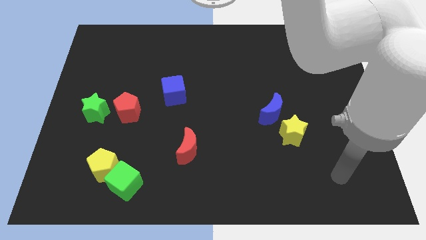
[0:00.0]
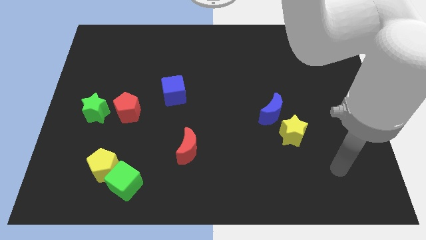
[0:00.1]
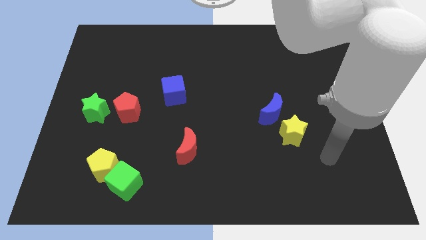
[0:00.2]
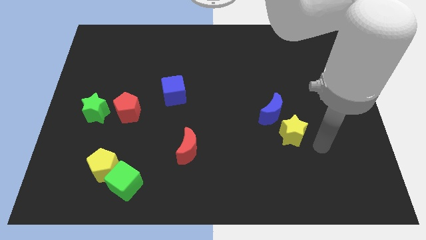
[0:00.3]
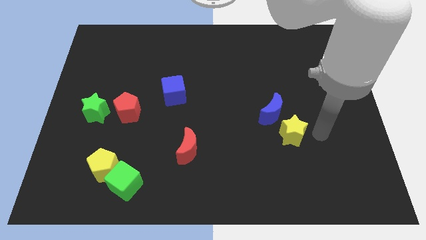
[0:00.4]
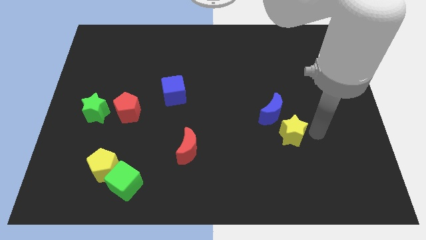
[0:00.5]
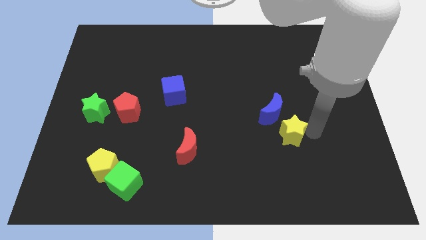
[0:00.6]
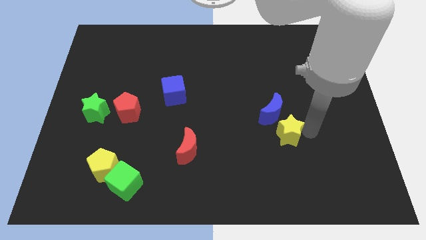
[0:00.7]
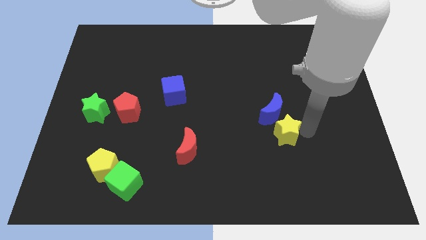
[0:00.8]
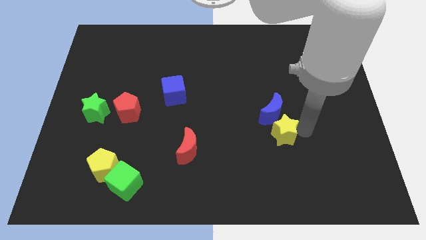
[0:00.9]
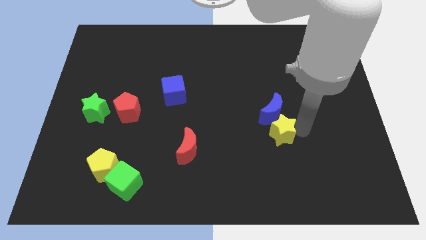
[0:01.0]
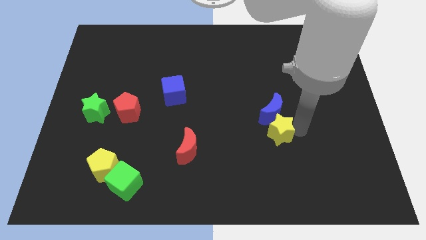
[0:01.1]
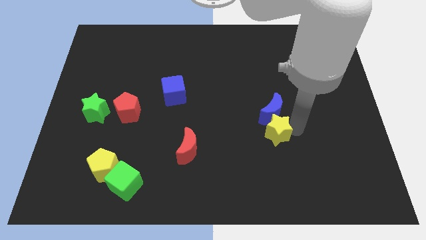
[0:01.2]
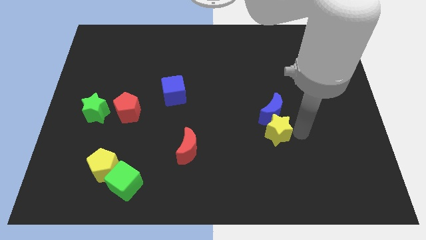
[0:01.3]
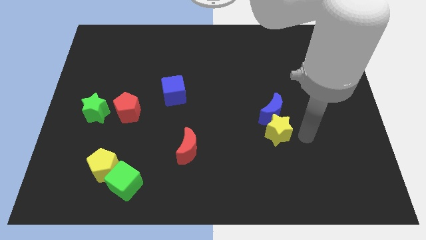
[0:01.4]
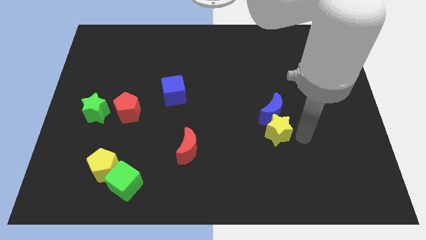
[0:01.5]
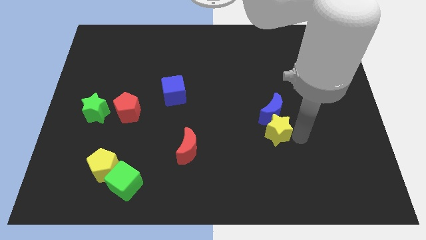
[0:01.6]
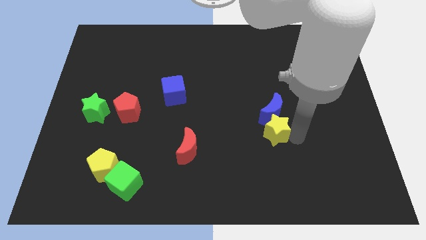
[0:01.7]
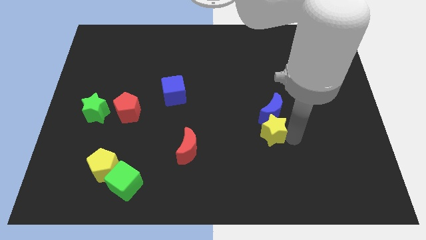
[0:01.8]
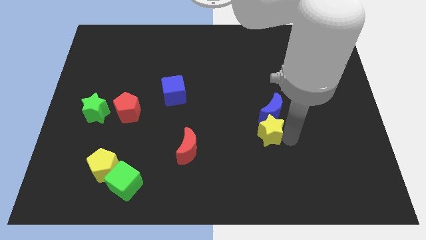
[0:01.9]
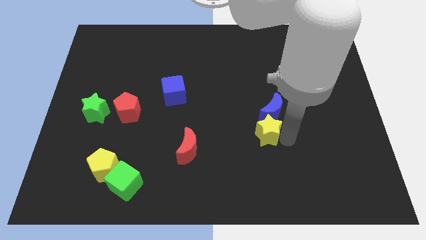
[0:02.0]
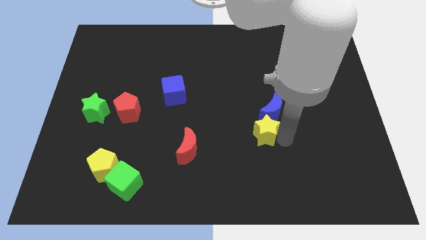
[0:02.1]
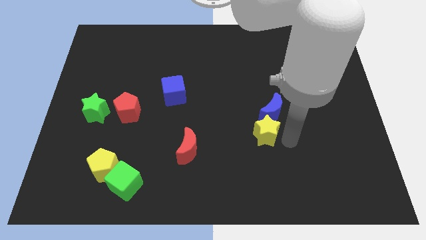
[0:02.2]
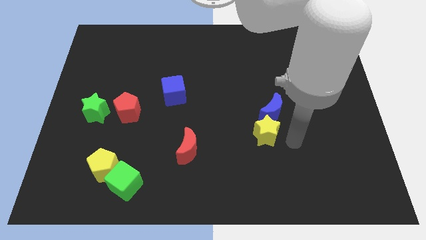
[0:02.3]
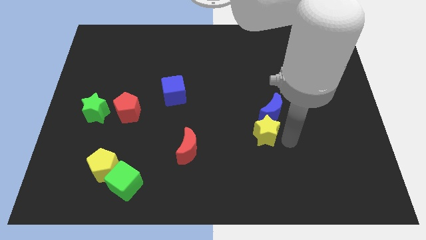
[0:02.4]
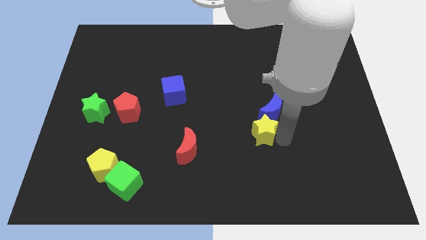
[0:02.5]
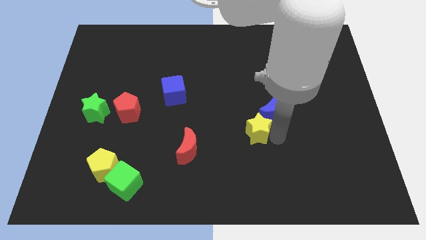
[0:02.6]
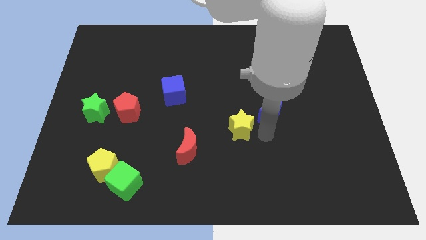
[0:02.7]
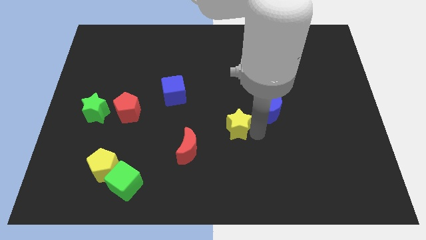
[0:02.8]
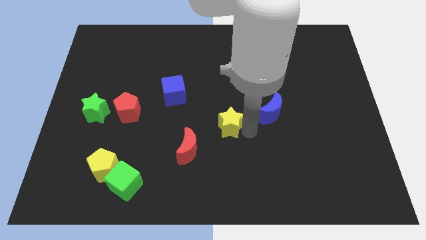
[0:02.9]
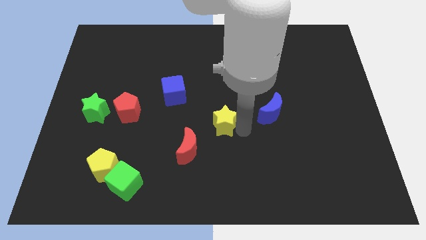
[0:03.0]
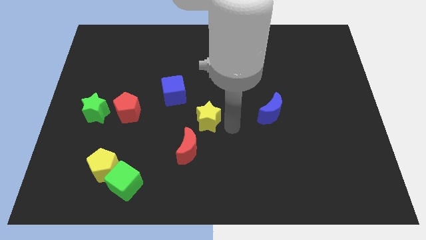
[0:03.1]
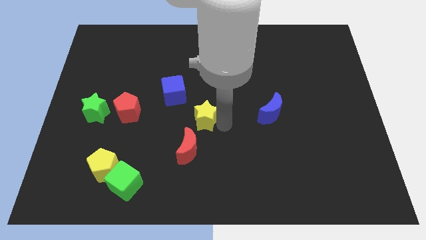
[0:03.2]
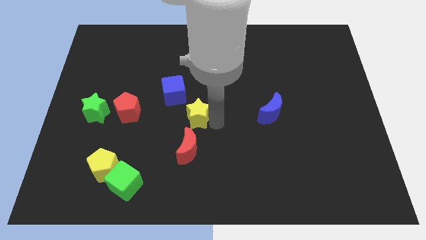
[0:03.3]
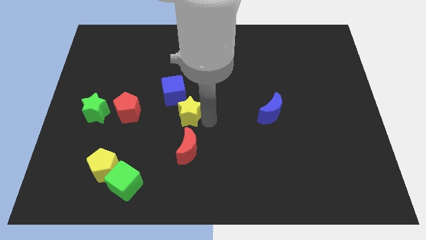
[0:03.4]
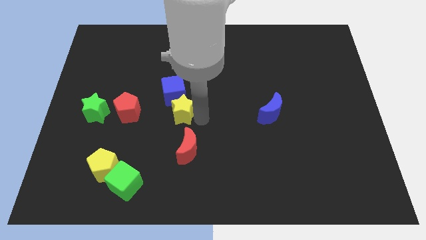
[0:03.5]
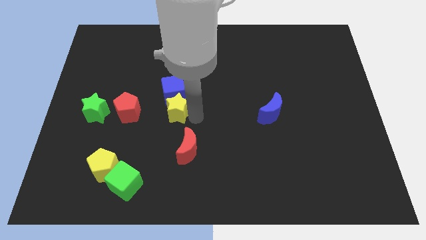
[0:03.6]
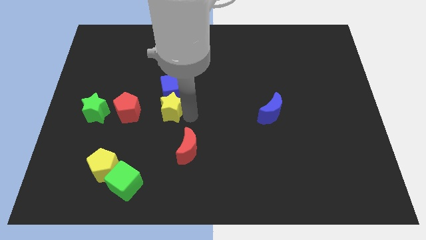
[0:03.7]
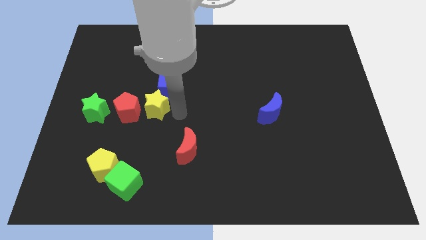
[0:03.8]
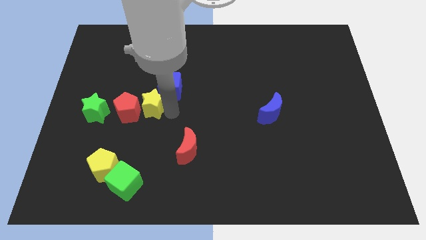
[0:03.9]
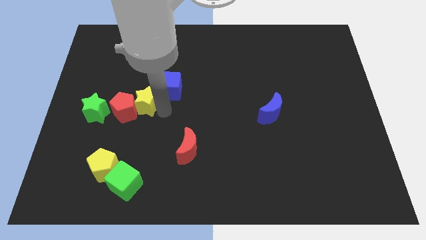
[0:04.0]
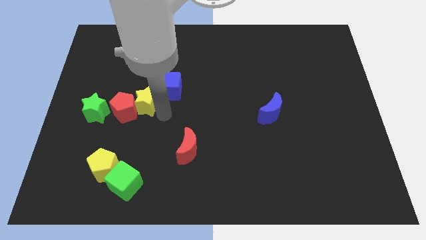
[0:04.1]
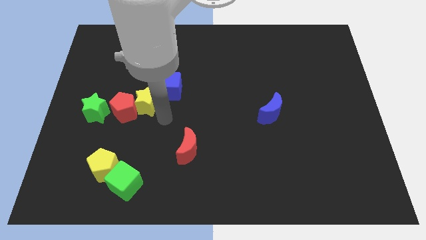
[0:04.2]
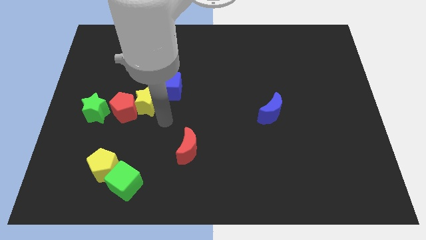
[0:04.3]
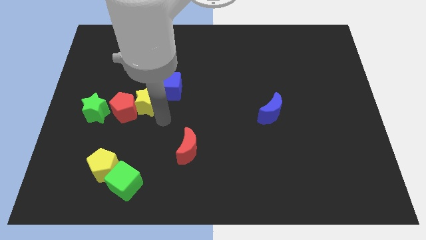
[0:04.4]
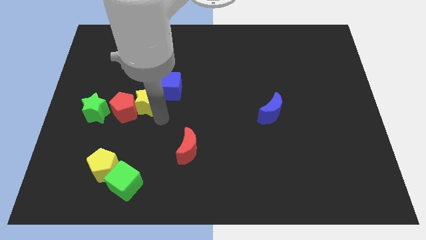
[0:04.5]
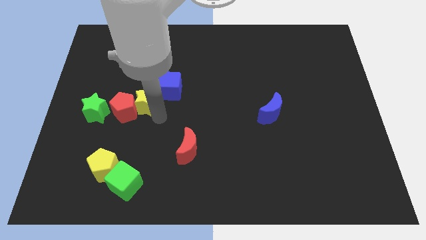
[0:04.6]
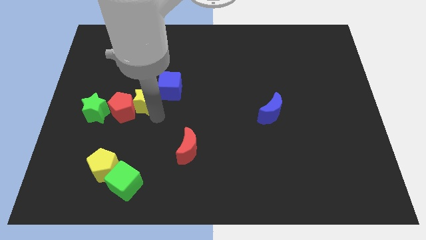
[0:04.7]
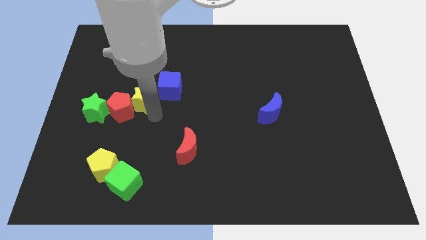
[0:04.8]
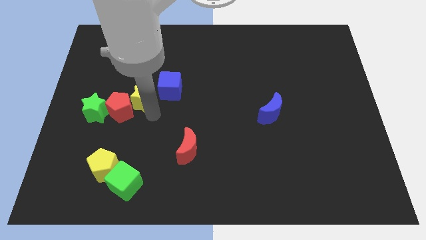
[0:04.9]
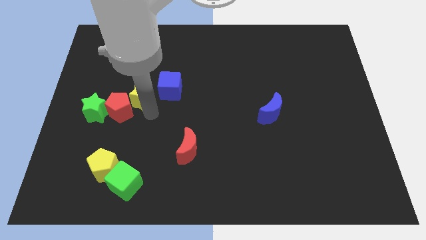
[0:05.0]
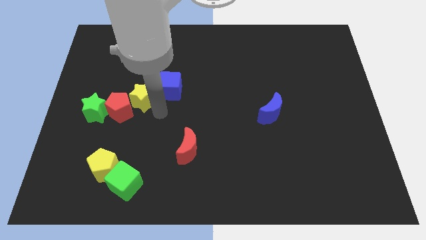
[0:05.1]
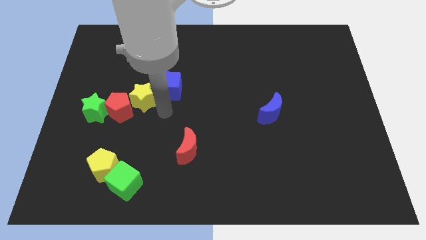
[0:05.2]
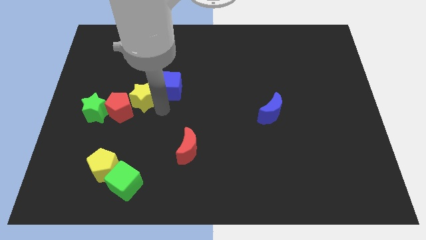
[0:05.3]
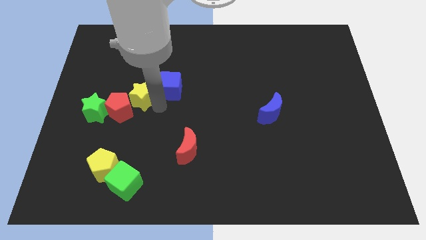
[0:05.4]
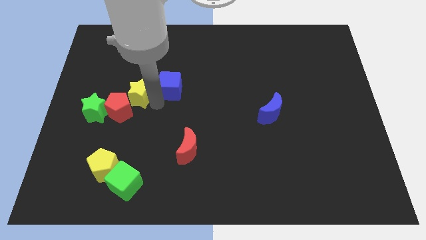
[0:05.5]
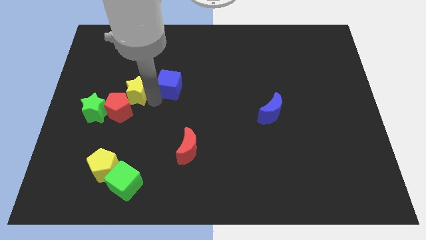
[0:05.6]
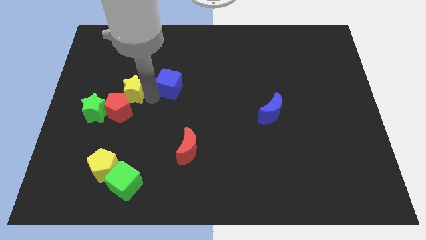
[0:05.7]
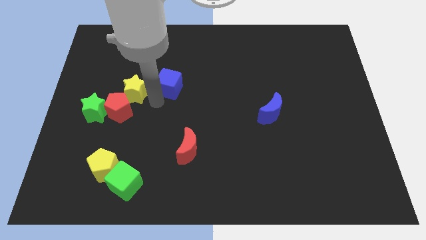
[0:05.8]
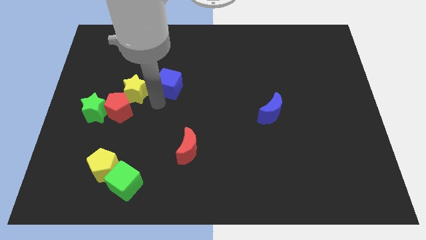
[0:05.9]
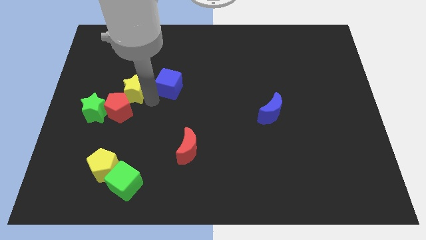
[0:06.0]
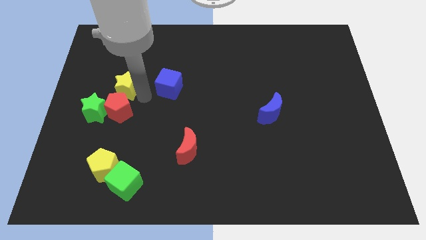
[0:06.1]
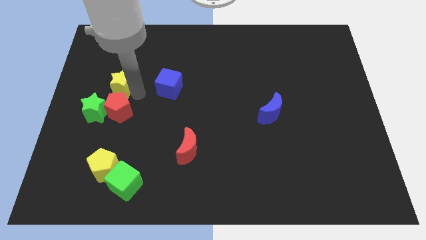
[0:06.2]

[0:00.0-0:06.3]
put the yellow star above the green star

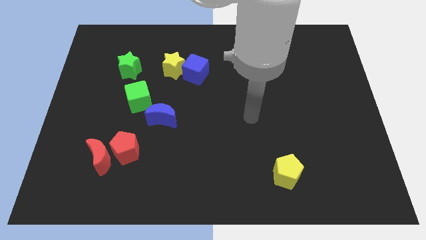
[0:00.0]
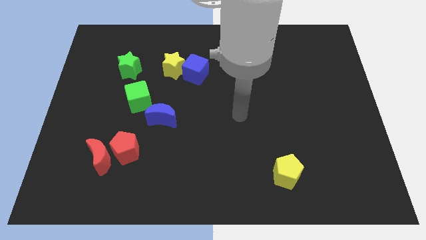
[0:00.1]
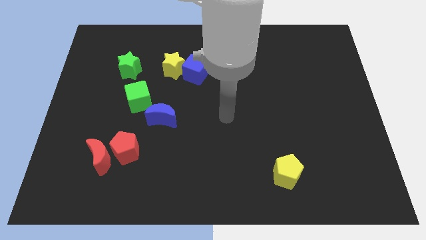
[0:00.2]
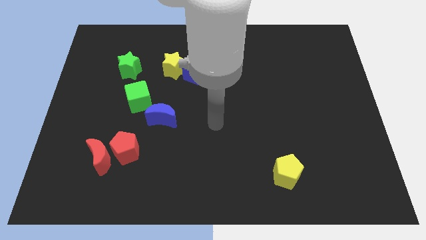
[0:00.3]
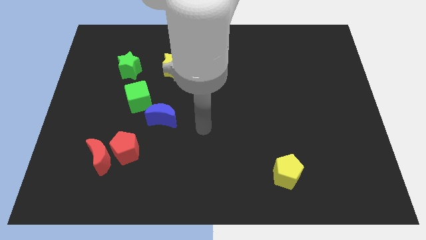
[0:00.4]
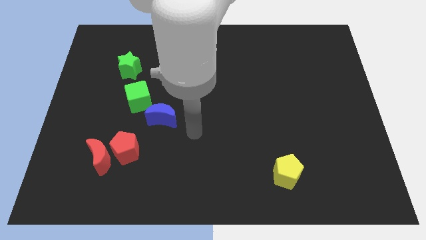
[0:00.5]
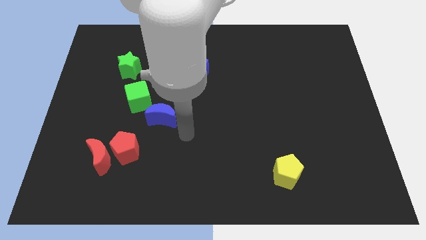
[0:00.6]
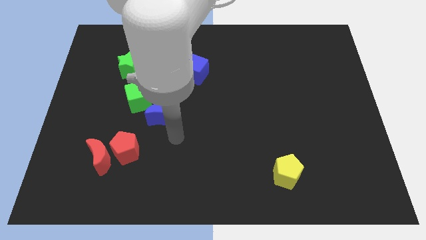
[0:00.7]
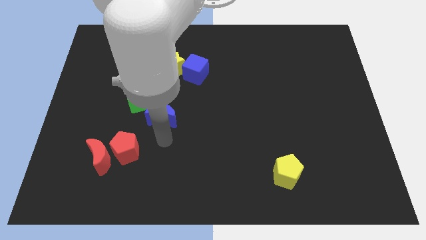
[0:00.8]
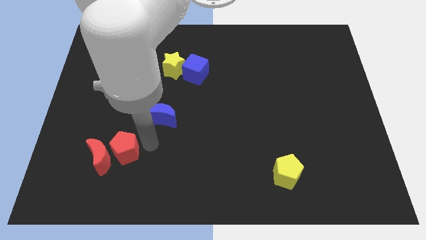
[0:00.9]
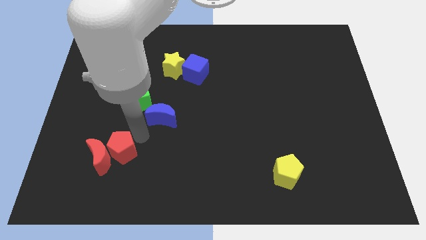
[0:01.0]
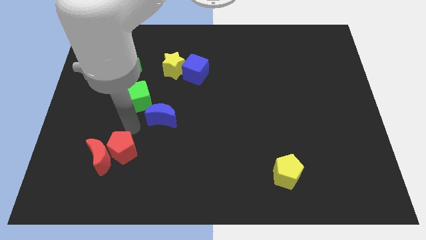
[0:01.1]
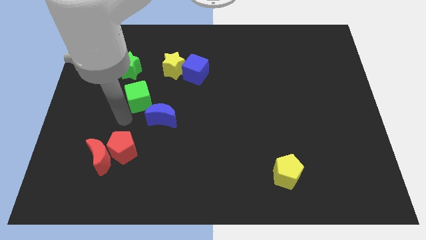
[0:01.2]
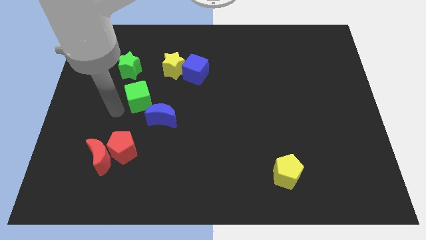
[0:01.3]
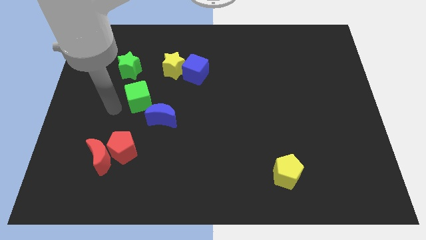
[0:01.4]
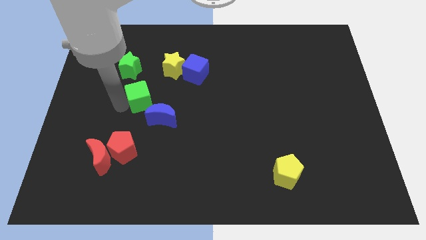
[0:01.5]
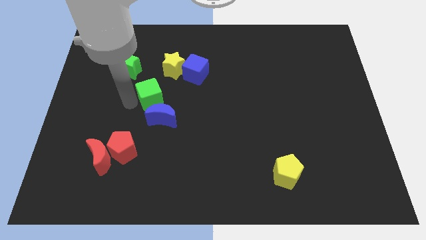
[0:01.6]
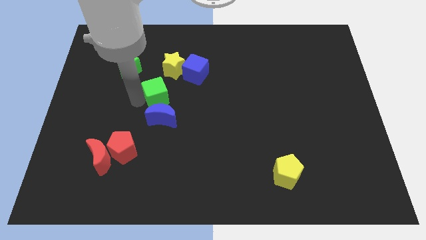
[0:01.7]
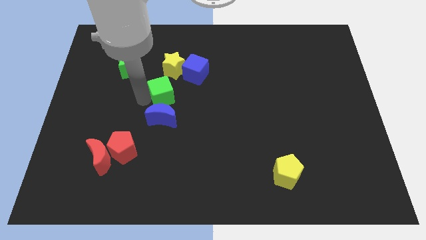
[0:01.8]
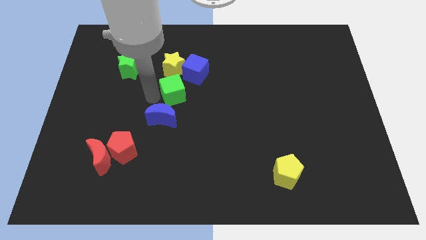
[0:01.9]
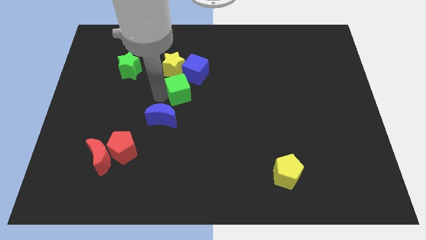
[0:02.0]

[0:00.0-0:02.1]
put the green cube to the bottom right of the yellow star
